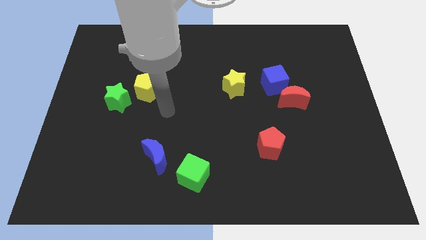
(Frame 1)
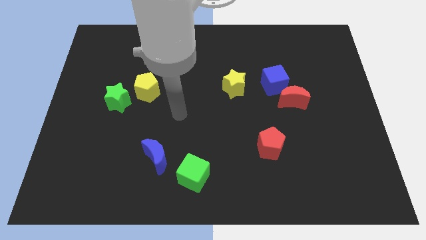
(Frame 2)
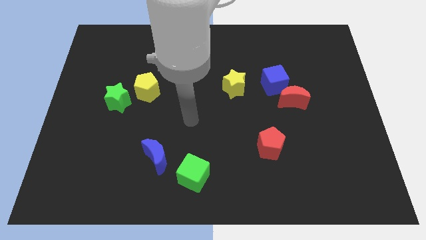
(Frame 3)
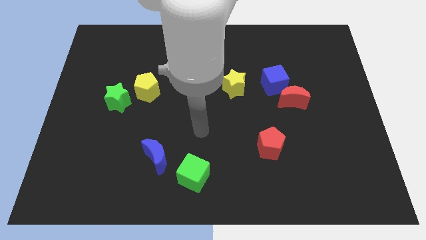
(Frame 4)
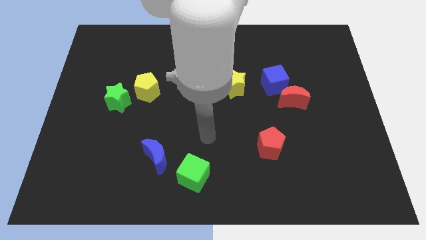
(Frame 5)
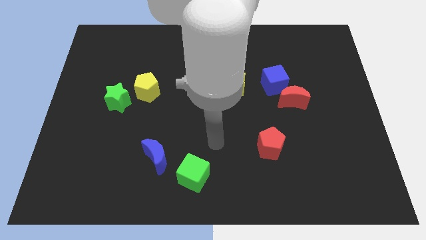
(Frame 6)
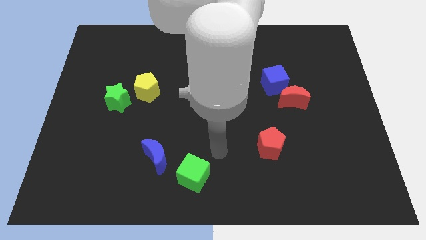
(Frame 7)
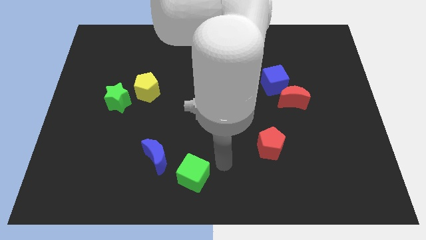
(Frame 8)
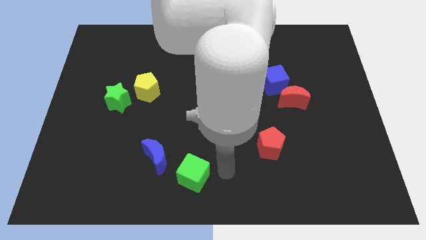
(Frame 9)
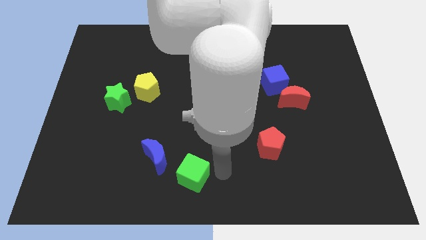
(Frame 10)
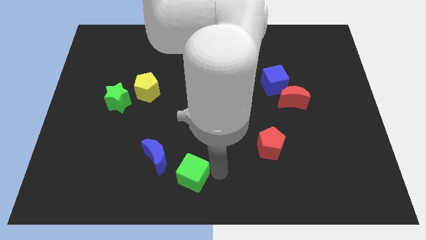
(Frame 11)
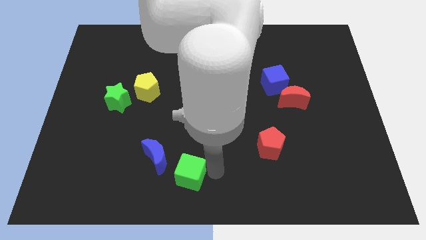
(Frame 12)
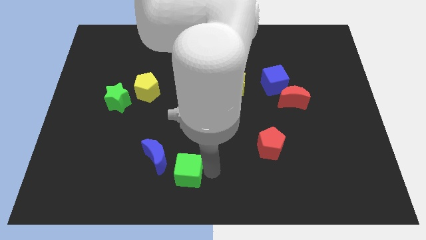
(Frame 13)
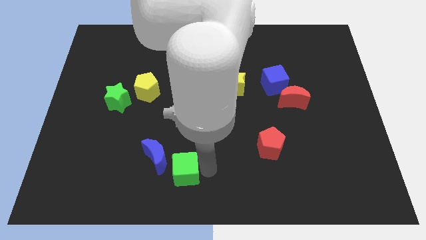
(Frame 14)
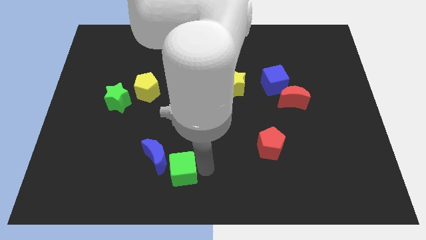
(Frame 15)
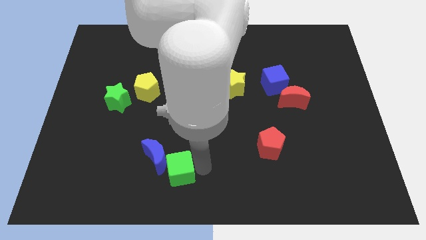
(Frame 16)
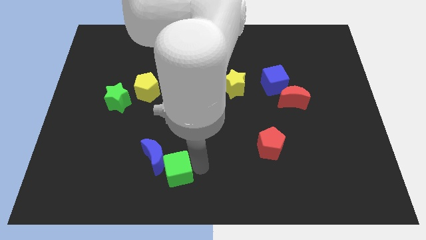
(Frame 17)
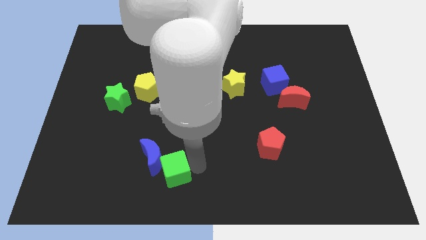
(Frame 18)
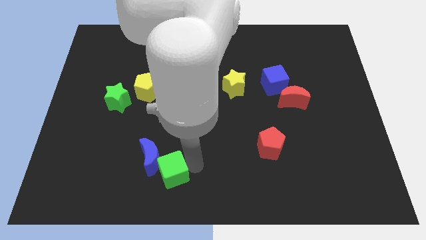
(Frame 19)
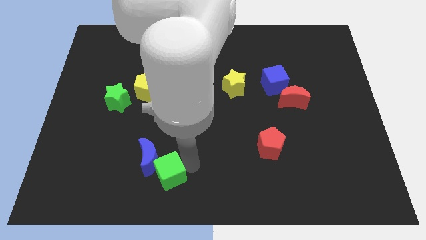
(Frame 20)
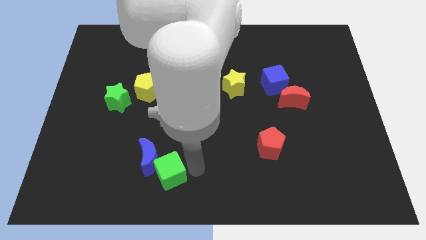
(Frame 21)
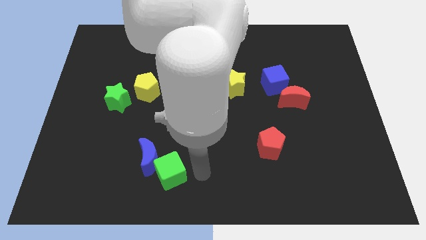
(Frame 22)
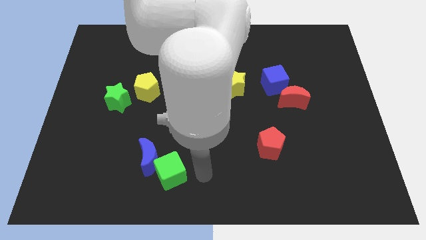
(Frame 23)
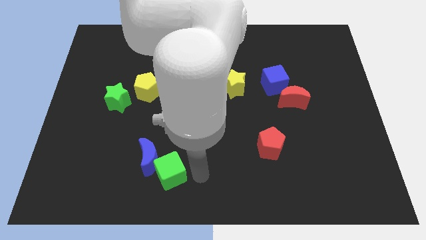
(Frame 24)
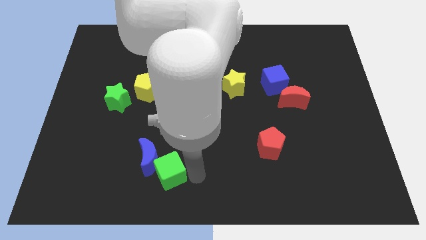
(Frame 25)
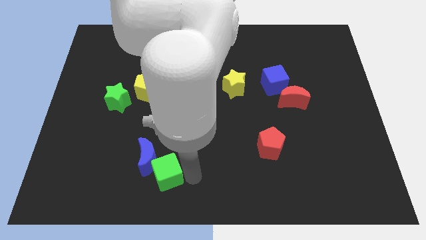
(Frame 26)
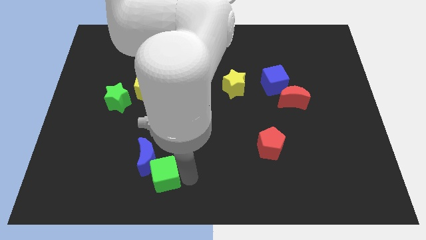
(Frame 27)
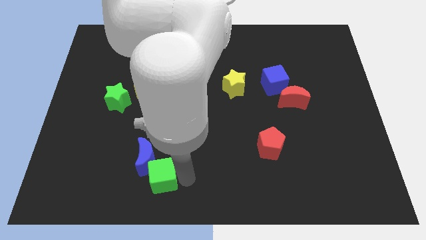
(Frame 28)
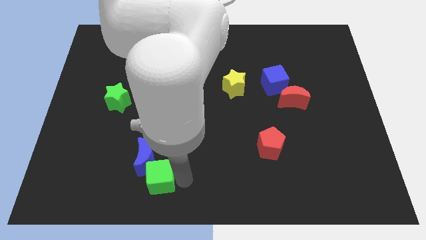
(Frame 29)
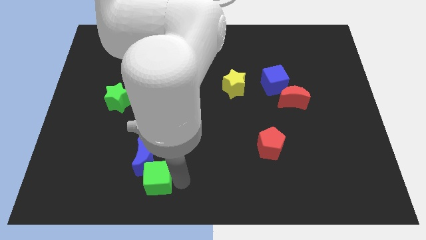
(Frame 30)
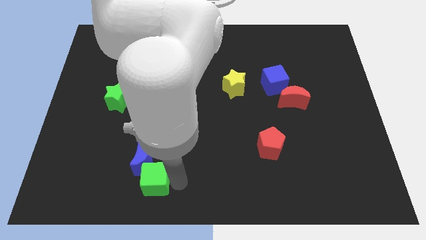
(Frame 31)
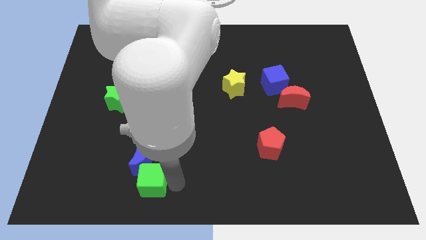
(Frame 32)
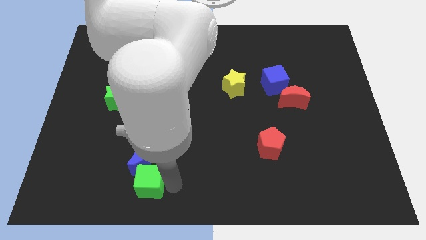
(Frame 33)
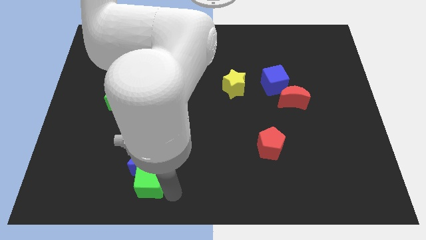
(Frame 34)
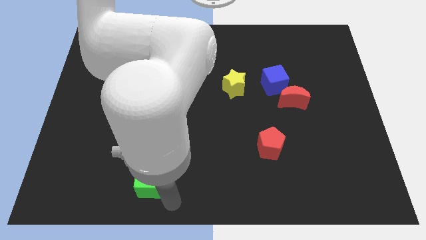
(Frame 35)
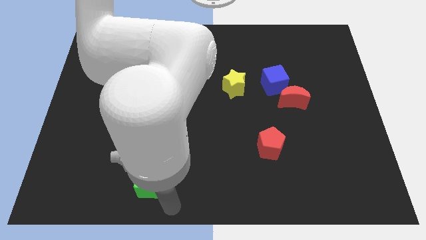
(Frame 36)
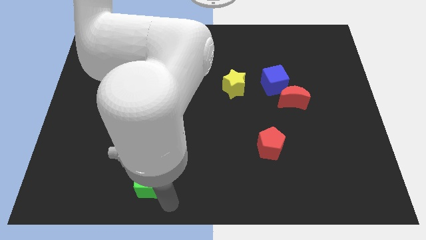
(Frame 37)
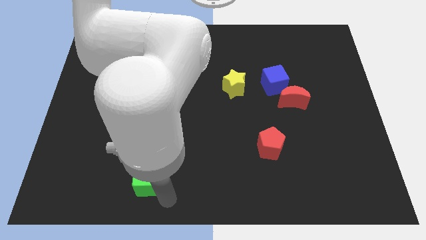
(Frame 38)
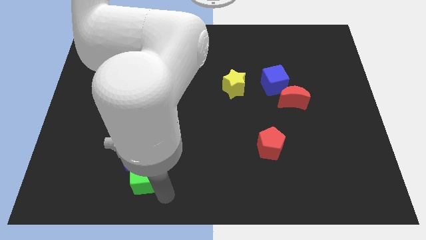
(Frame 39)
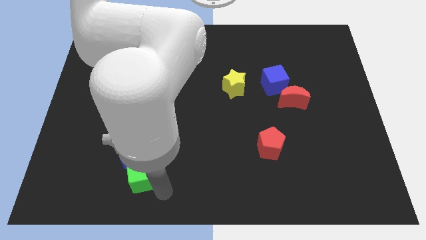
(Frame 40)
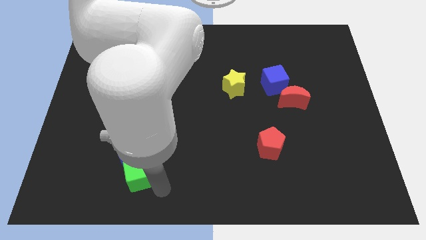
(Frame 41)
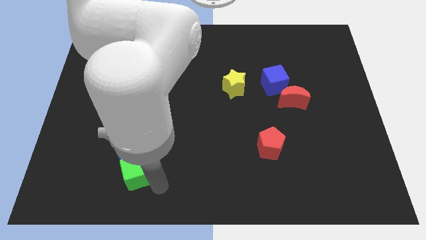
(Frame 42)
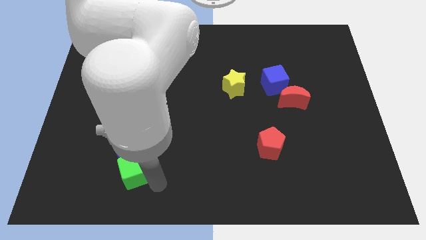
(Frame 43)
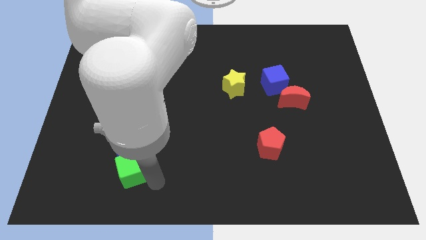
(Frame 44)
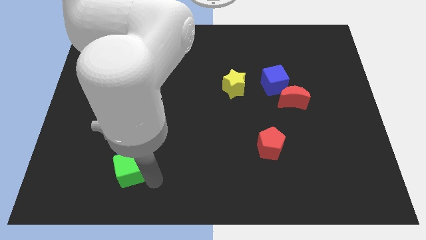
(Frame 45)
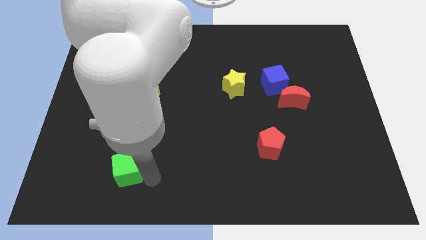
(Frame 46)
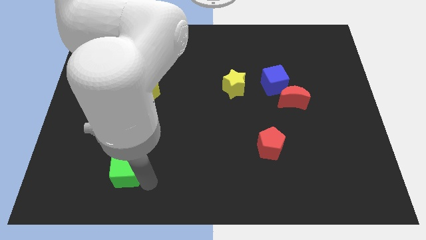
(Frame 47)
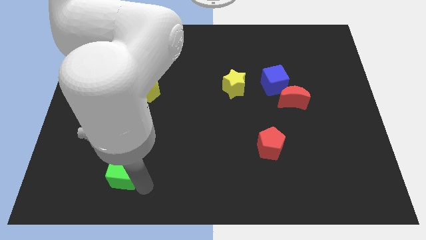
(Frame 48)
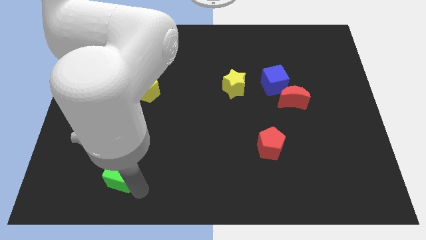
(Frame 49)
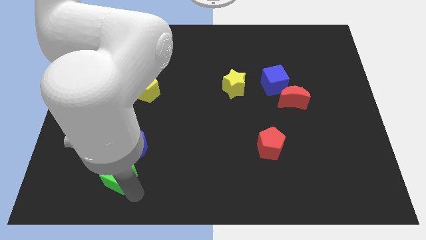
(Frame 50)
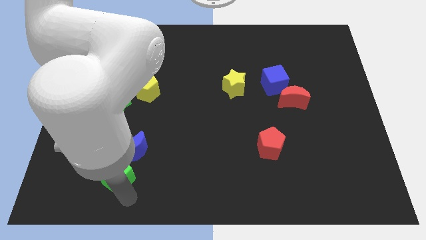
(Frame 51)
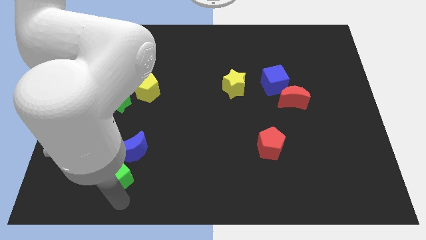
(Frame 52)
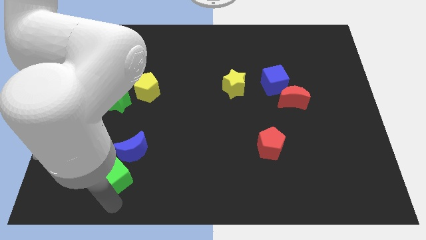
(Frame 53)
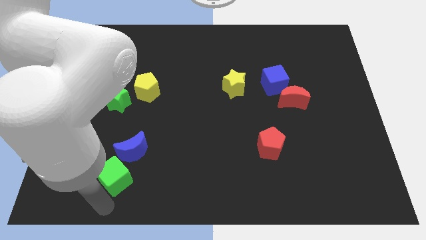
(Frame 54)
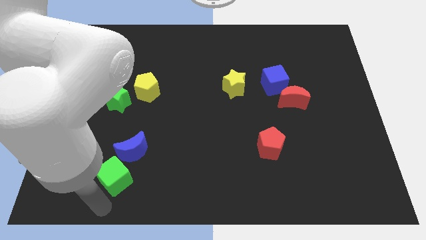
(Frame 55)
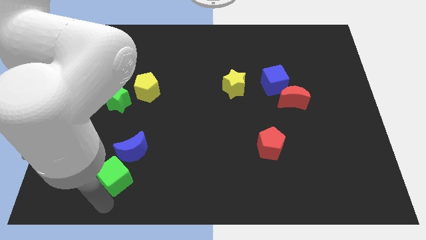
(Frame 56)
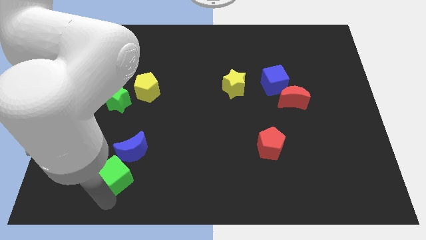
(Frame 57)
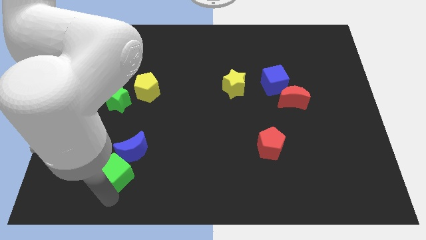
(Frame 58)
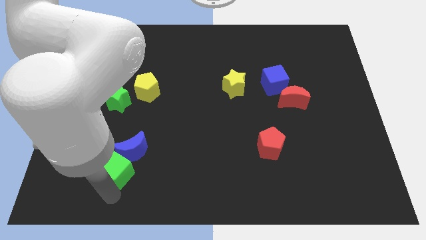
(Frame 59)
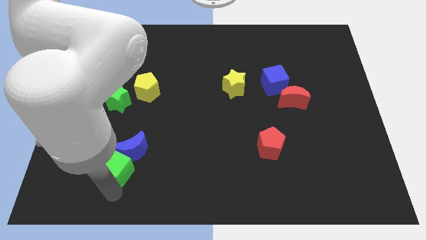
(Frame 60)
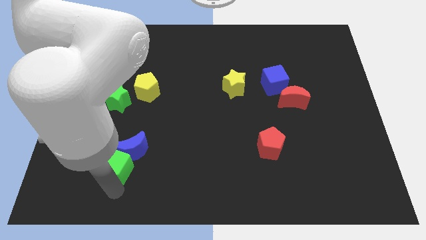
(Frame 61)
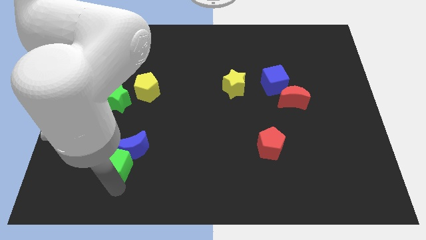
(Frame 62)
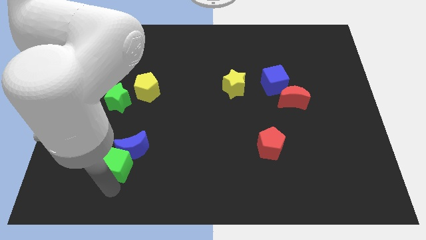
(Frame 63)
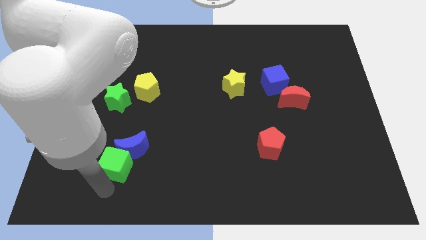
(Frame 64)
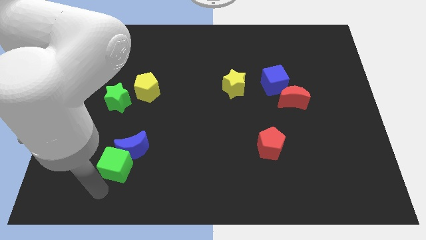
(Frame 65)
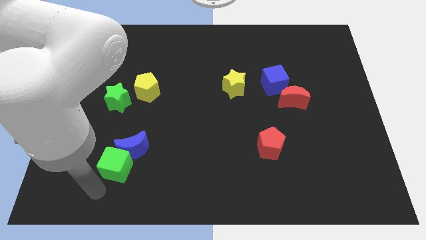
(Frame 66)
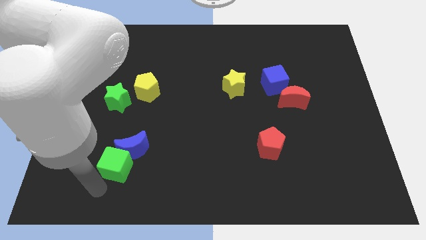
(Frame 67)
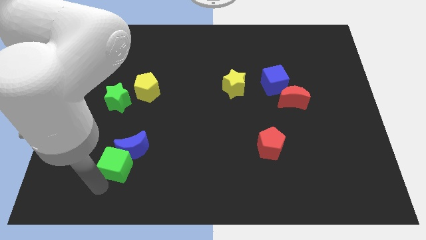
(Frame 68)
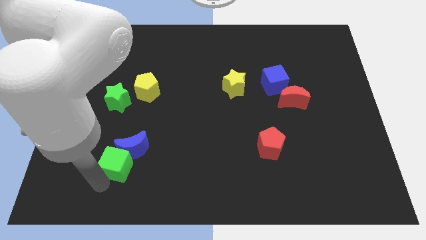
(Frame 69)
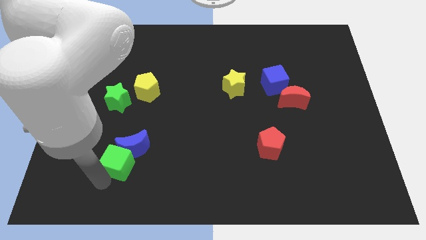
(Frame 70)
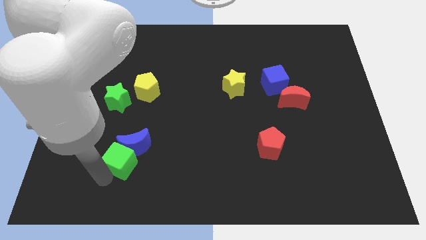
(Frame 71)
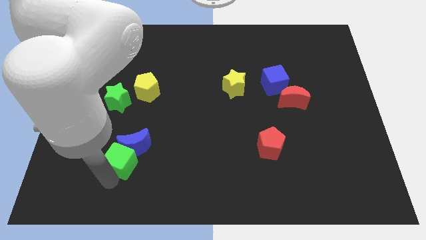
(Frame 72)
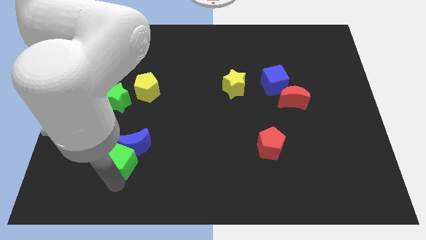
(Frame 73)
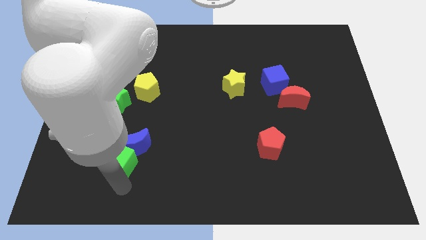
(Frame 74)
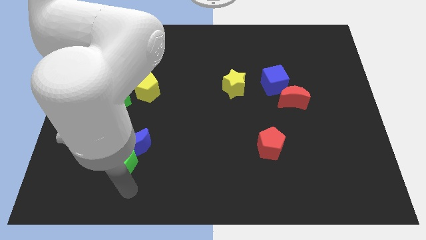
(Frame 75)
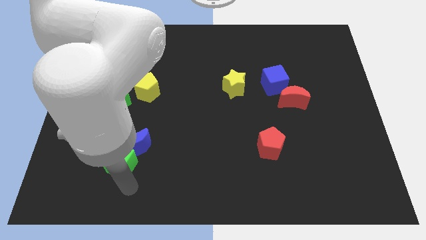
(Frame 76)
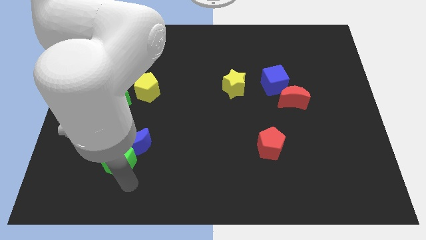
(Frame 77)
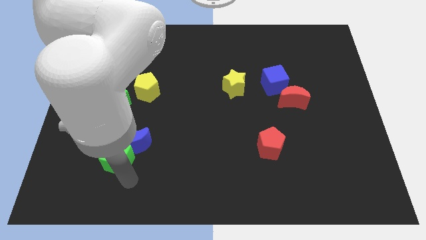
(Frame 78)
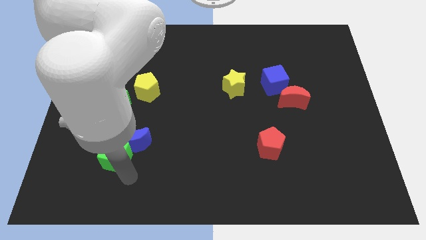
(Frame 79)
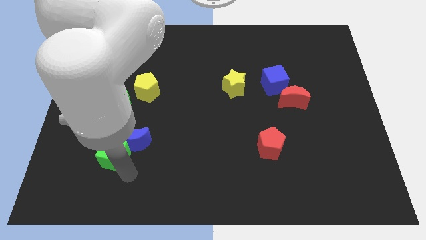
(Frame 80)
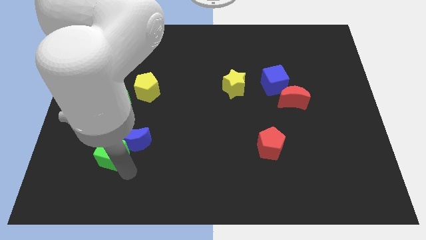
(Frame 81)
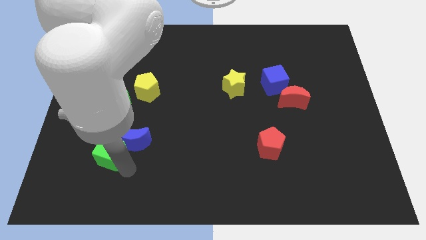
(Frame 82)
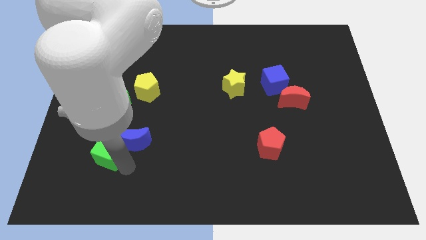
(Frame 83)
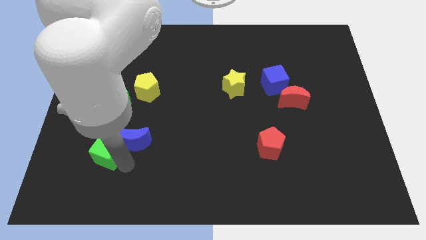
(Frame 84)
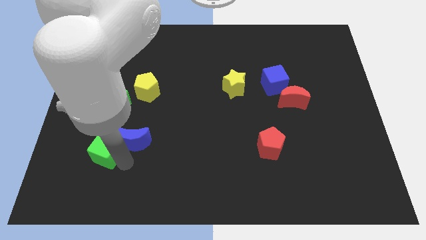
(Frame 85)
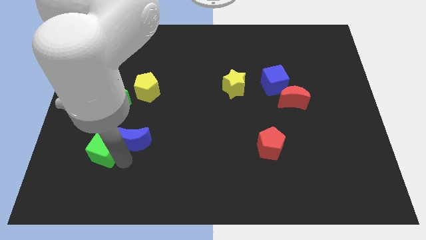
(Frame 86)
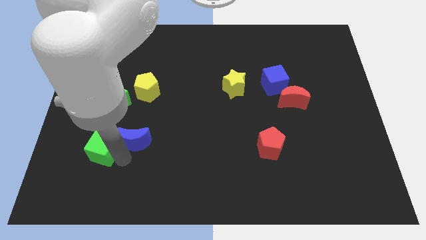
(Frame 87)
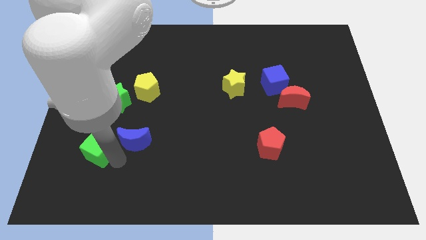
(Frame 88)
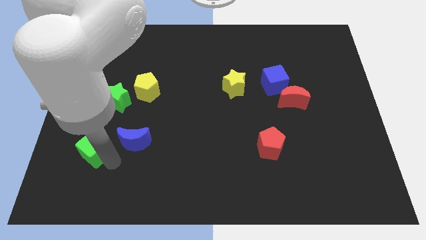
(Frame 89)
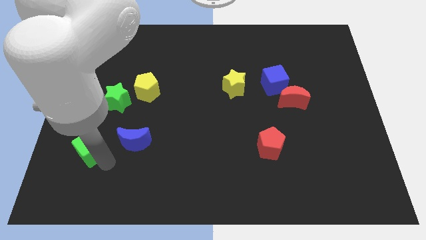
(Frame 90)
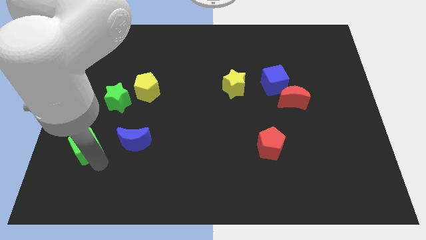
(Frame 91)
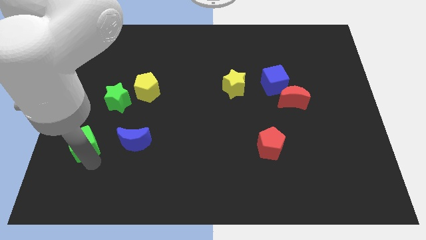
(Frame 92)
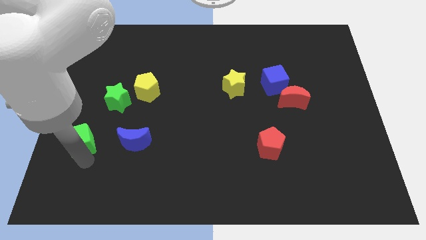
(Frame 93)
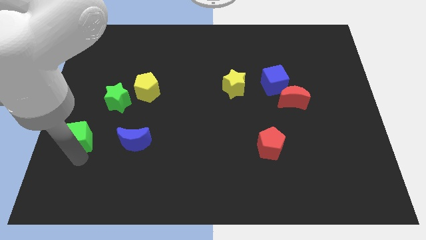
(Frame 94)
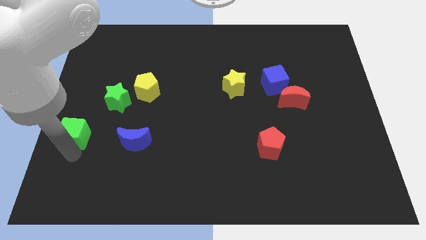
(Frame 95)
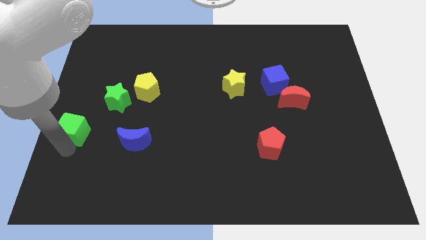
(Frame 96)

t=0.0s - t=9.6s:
slide the green cube diagonally upwards and left
